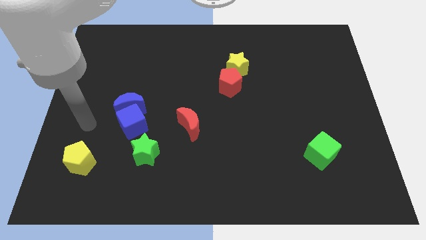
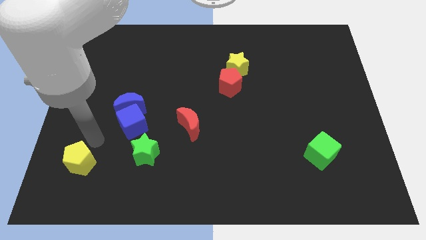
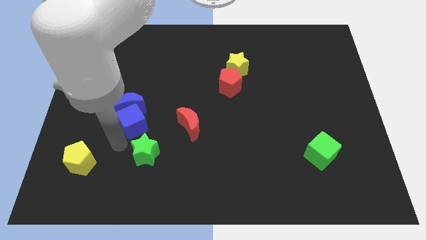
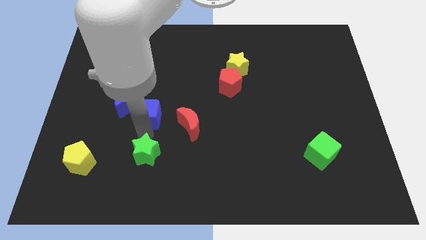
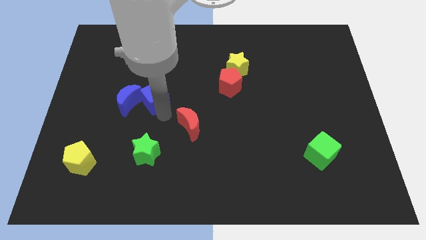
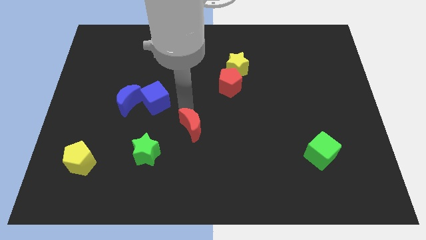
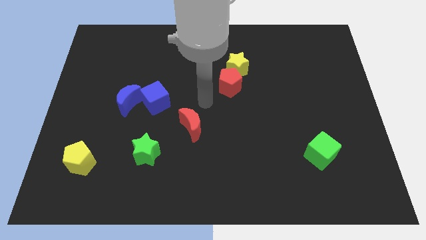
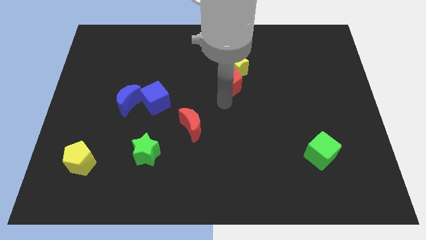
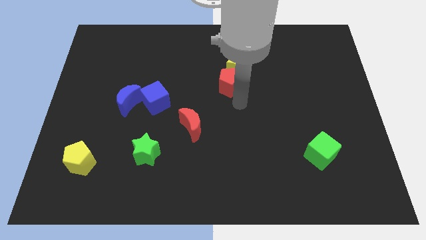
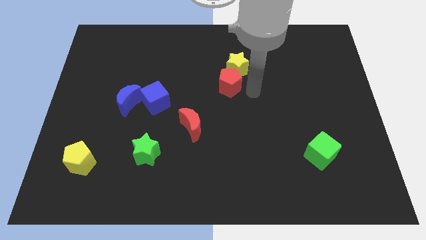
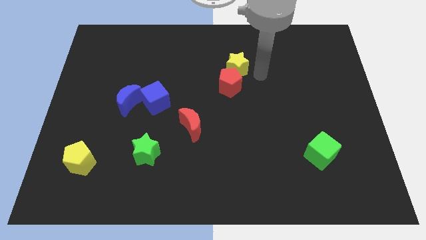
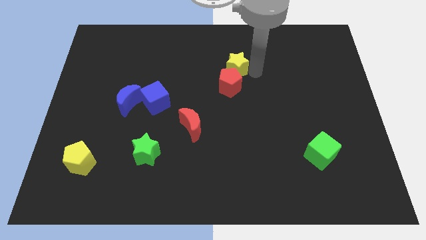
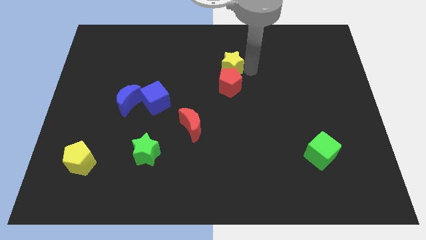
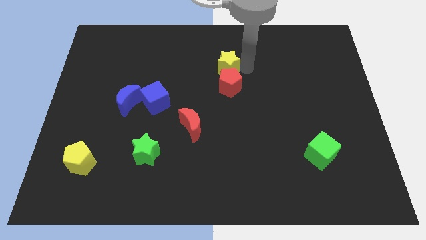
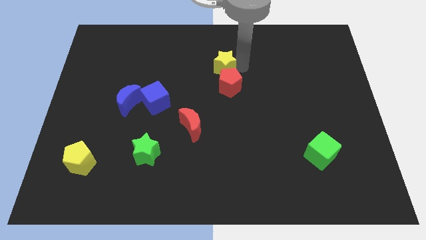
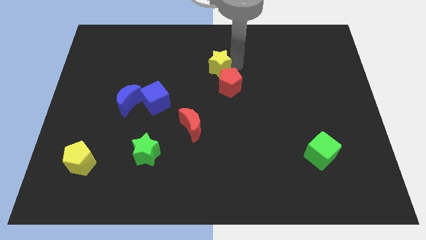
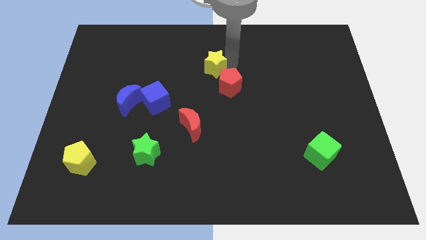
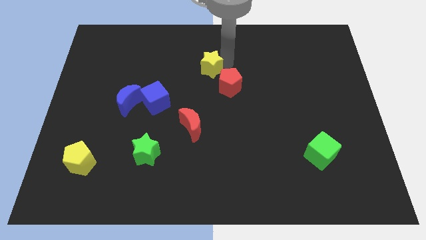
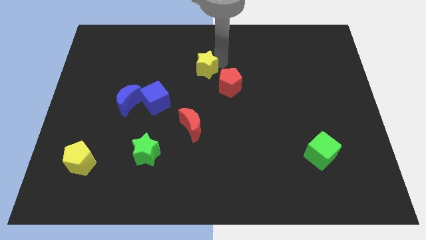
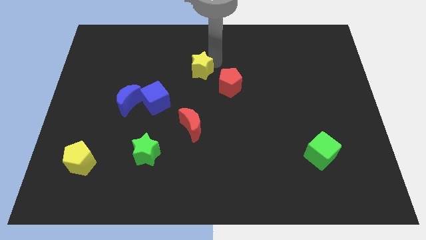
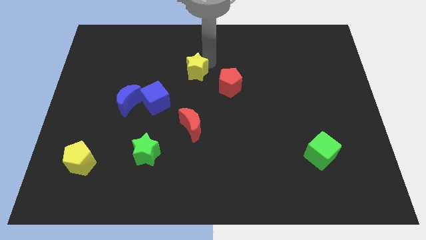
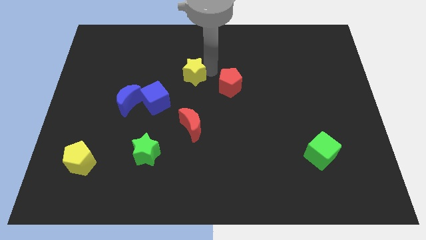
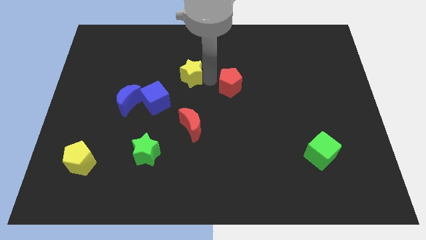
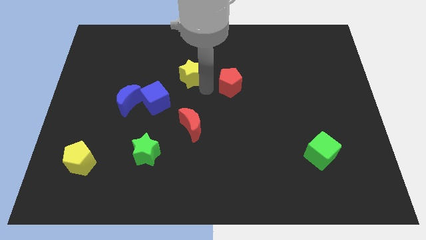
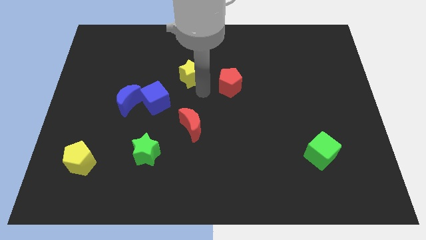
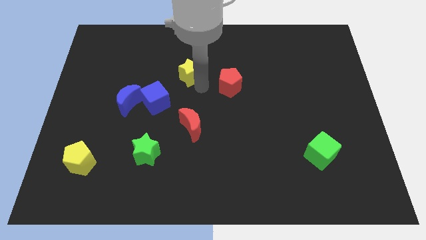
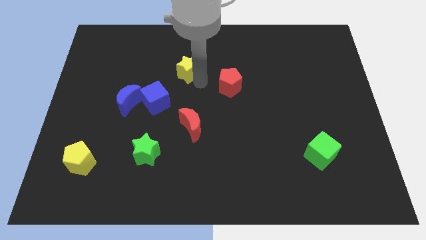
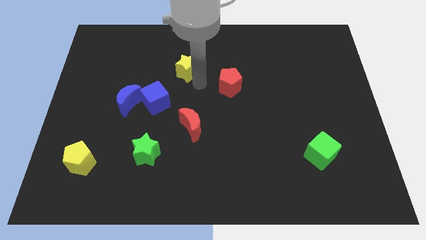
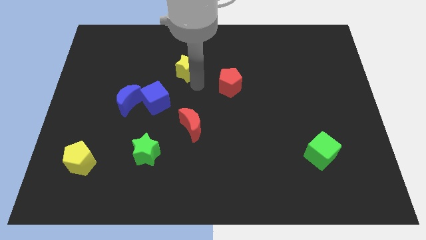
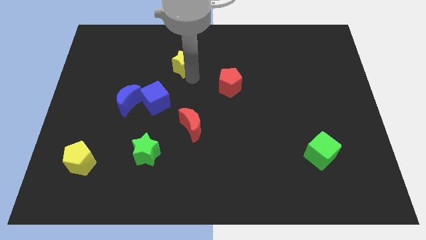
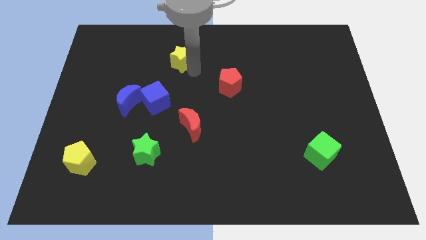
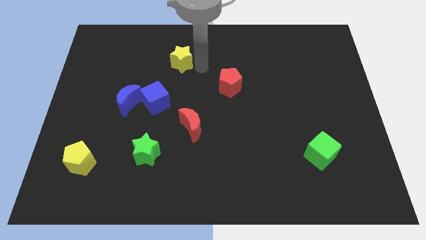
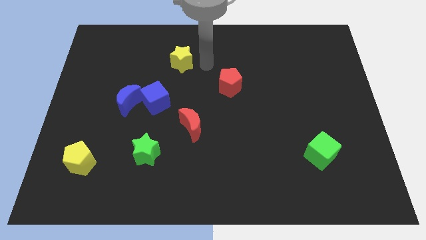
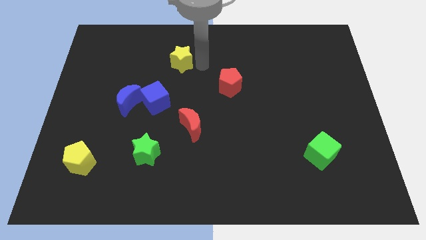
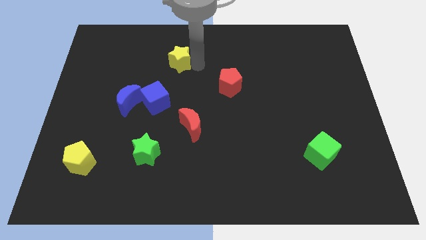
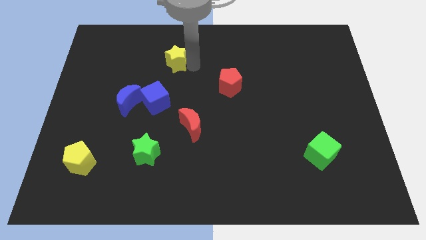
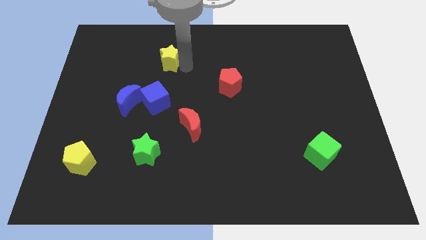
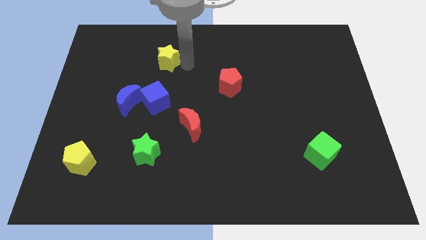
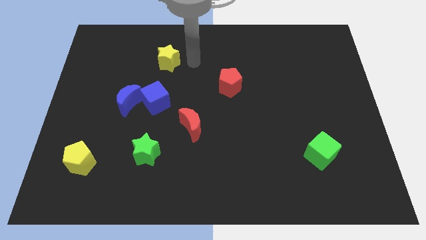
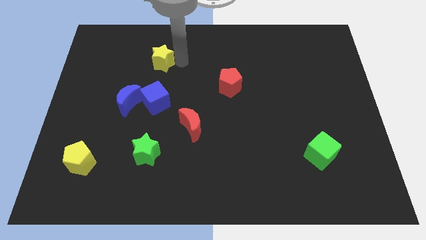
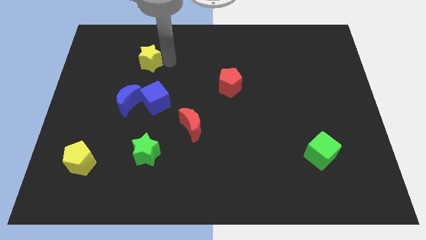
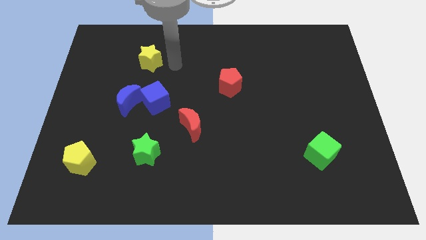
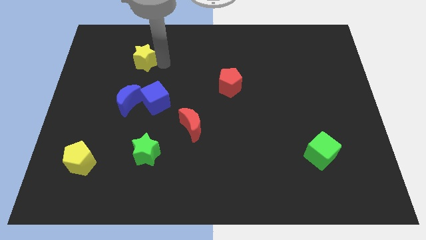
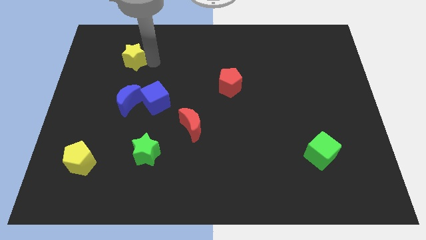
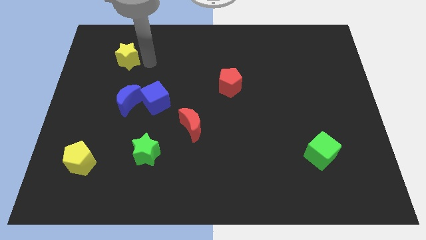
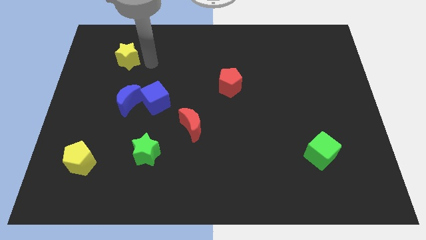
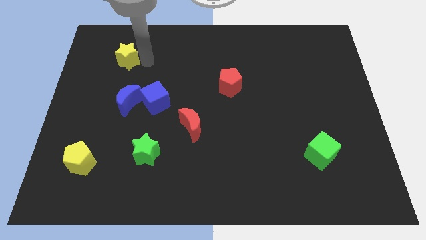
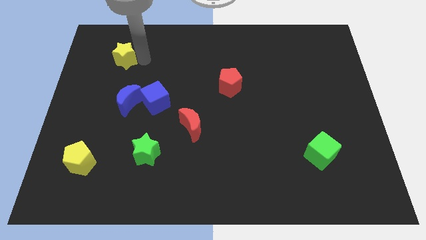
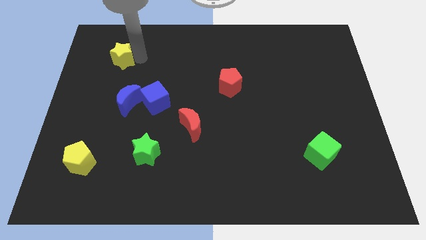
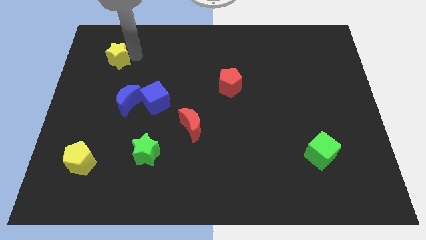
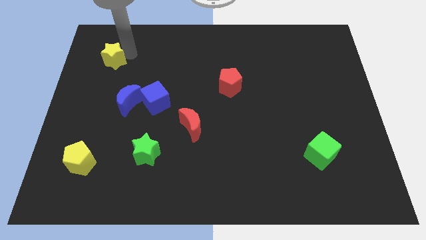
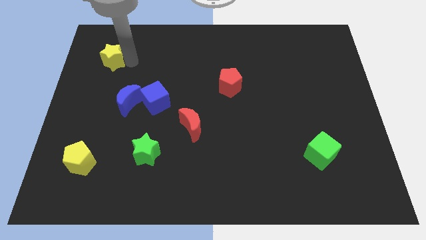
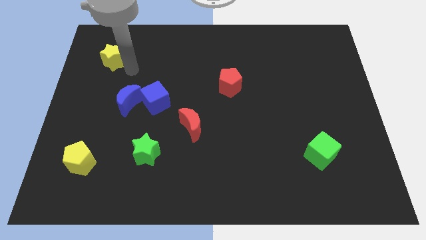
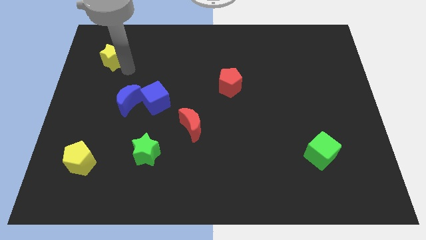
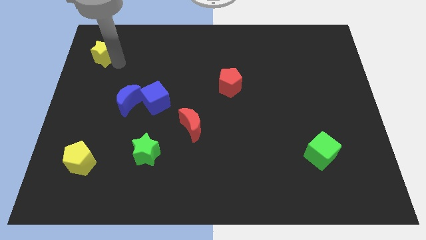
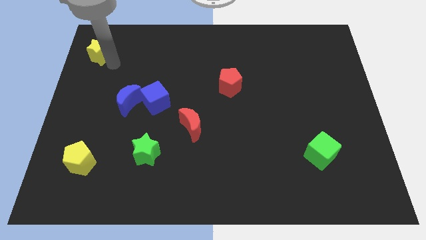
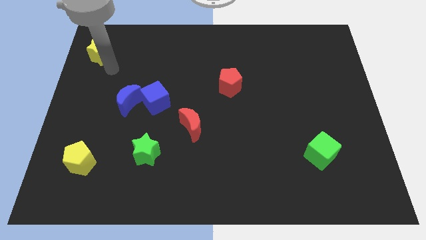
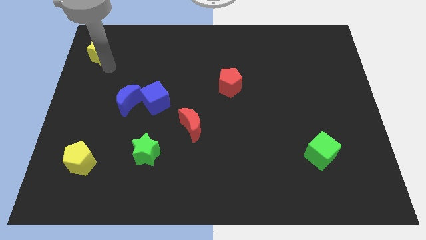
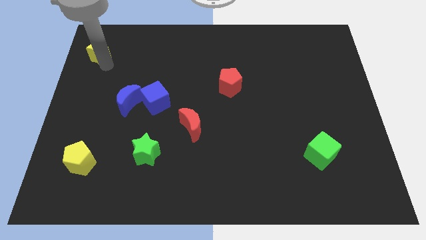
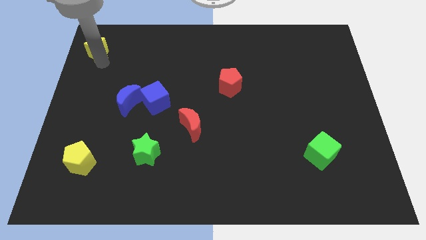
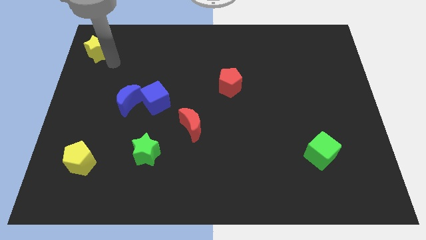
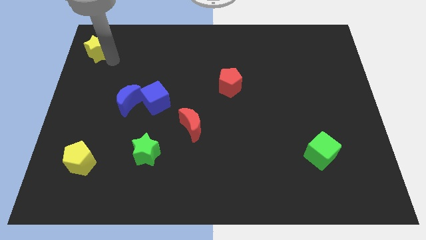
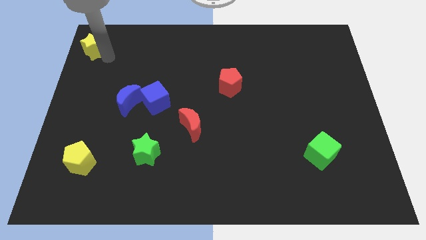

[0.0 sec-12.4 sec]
push the yellow star to the top left corner

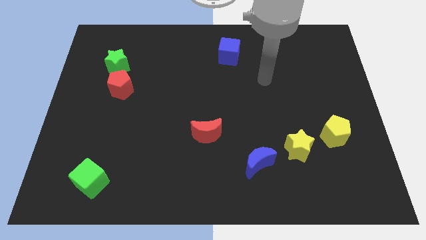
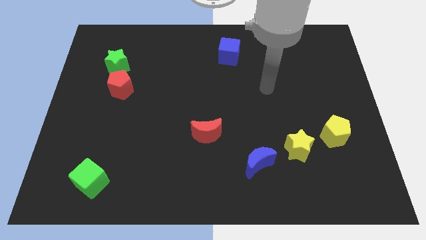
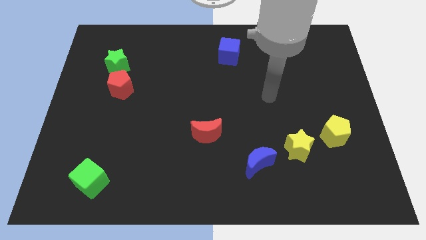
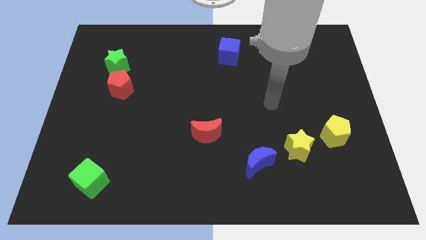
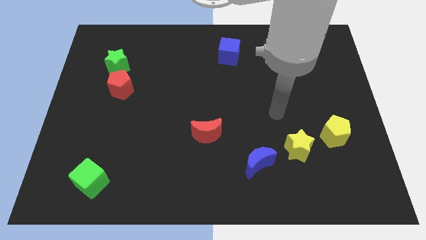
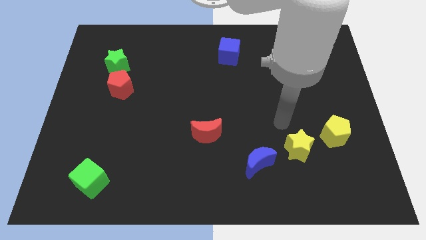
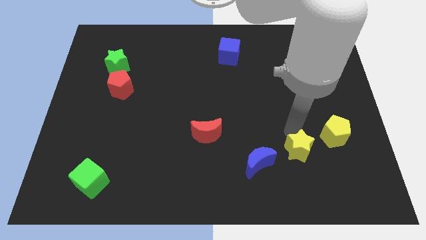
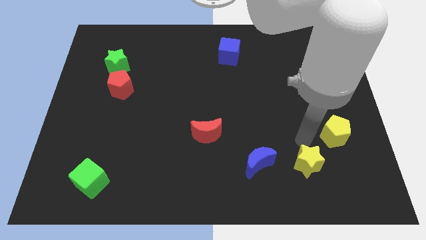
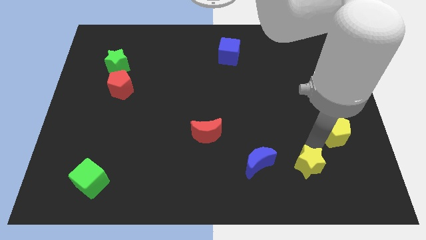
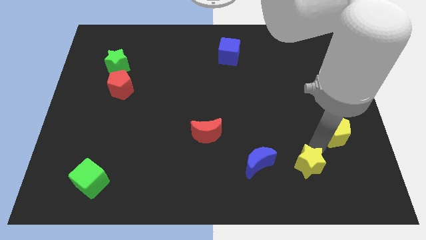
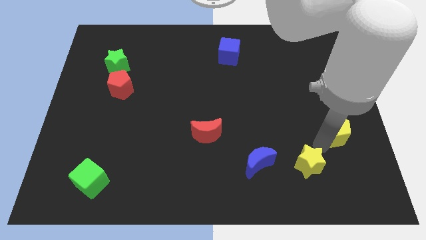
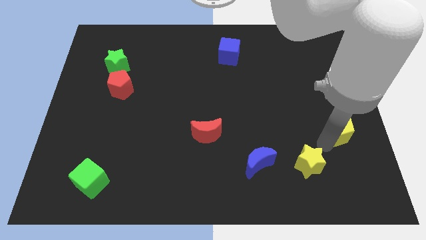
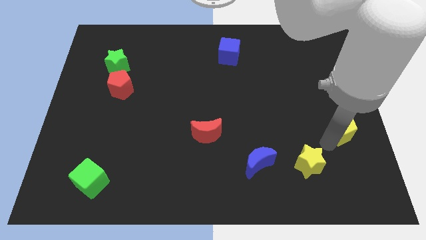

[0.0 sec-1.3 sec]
push the yellow pentagon to the center right
